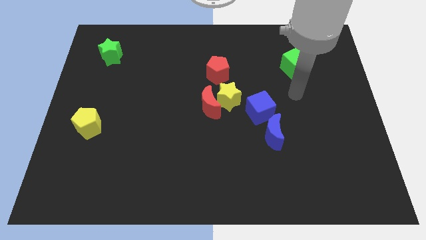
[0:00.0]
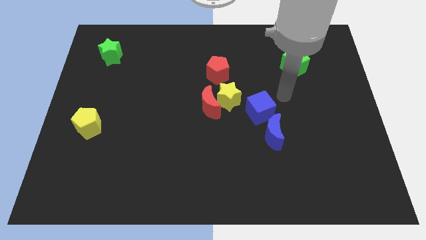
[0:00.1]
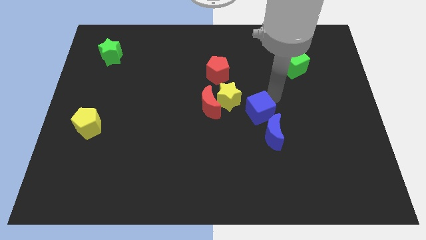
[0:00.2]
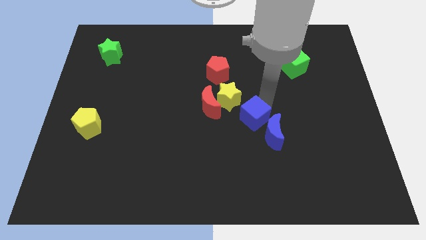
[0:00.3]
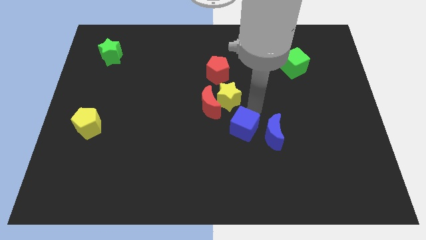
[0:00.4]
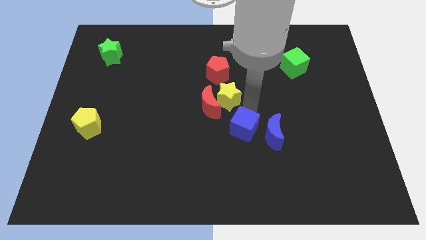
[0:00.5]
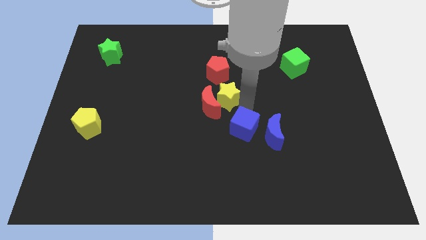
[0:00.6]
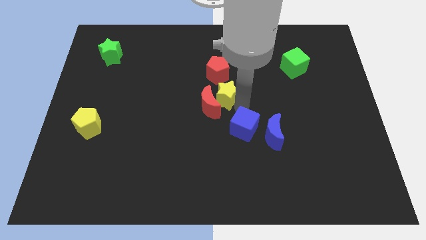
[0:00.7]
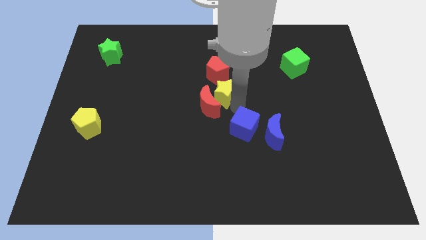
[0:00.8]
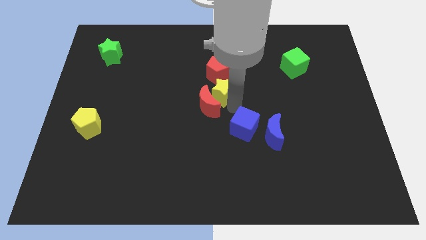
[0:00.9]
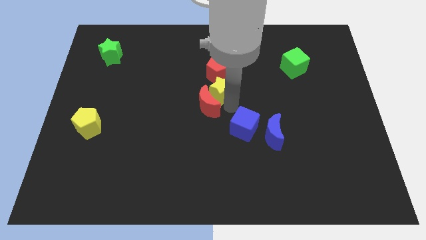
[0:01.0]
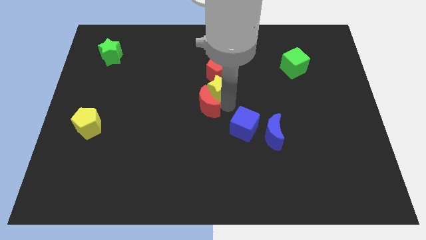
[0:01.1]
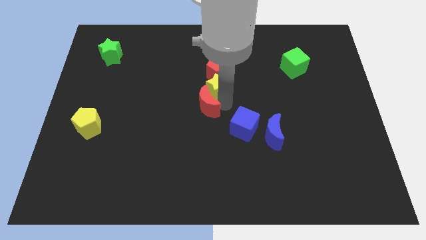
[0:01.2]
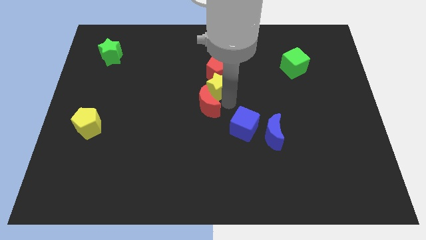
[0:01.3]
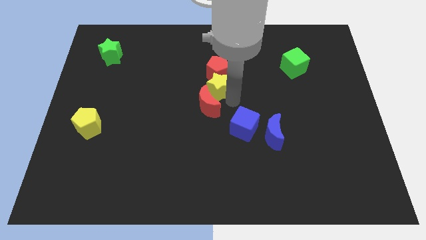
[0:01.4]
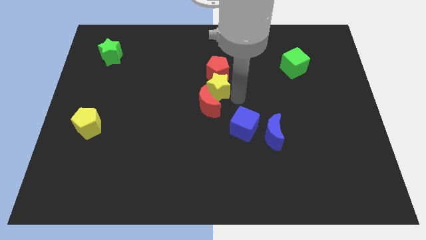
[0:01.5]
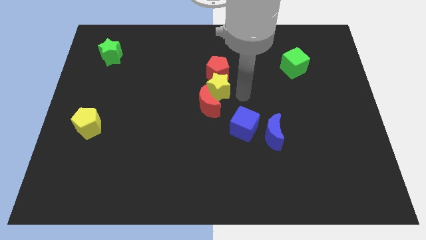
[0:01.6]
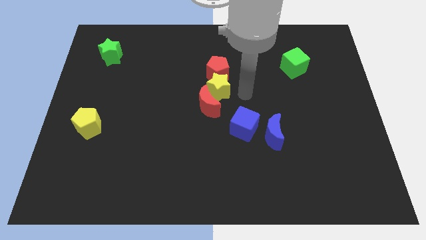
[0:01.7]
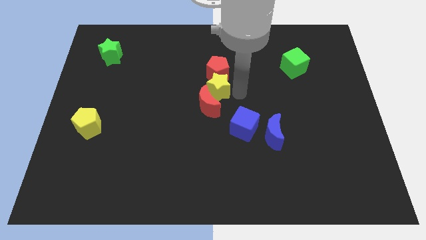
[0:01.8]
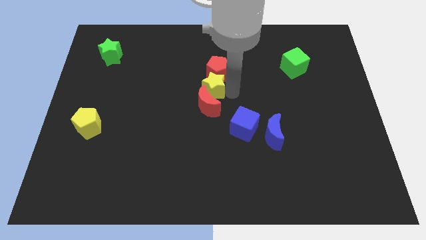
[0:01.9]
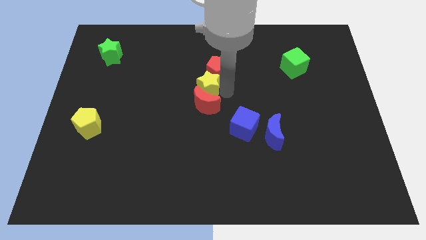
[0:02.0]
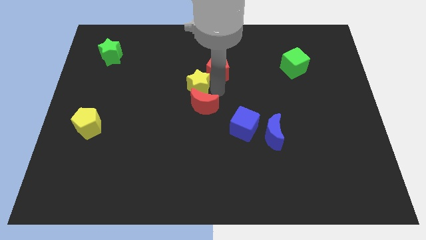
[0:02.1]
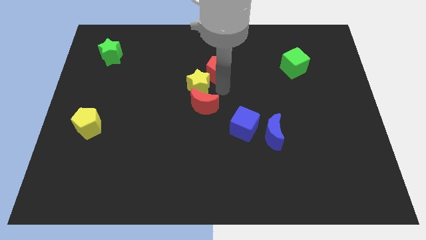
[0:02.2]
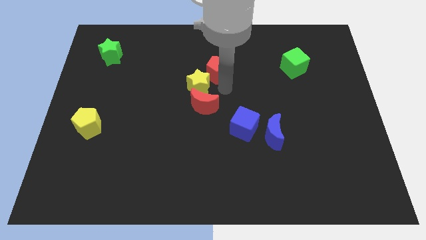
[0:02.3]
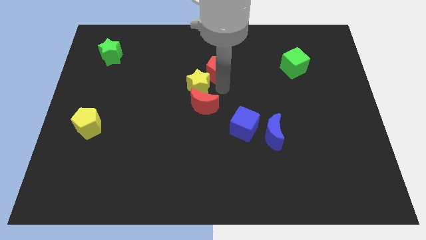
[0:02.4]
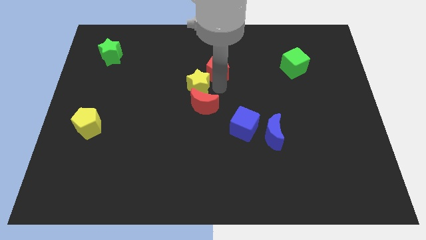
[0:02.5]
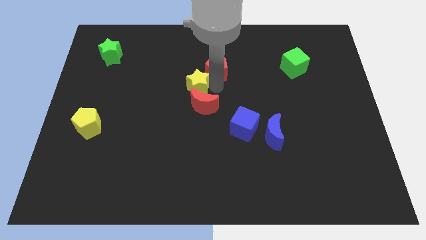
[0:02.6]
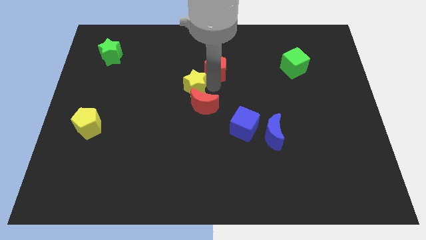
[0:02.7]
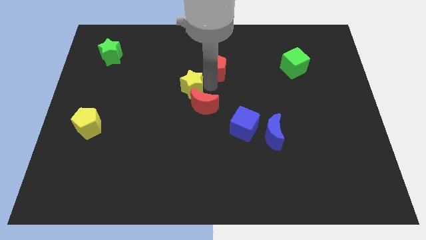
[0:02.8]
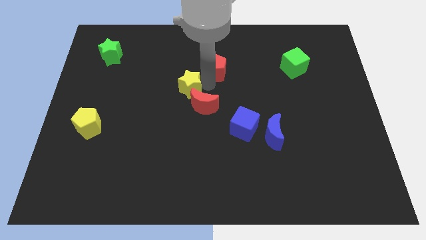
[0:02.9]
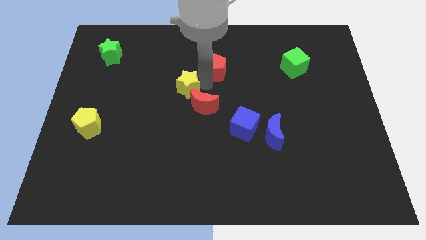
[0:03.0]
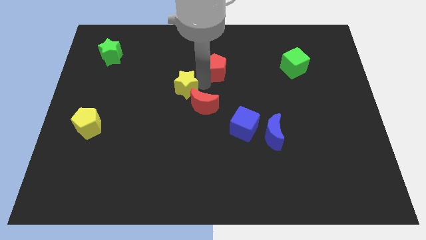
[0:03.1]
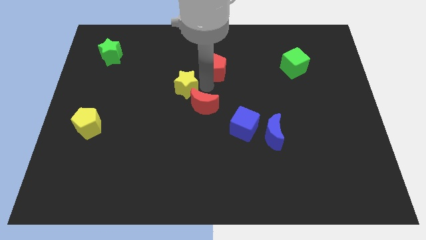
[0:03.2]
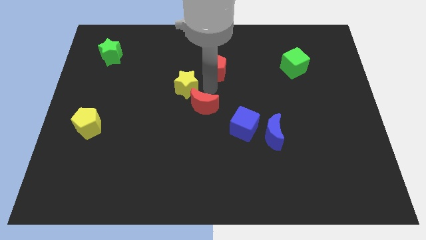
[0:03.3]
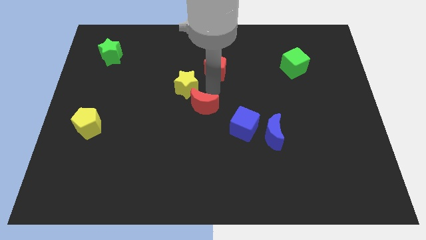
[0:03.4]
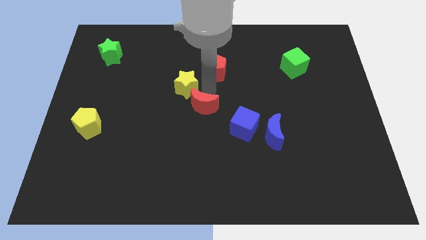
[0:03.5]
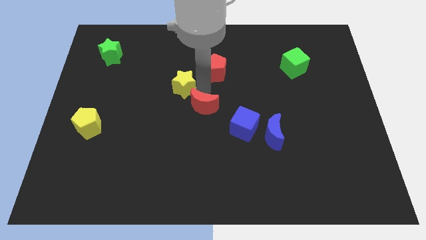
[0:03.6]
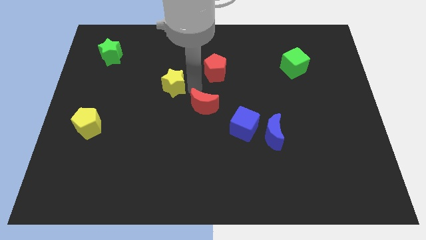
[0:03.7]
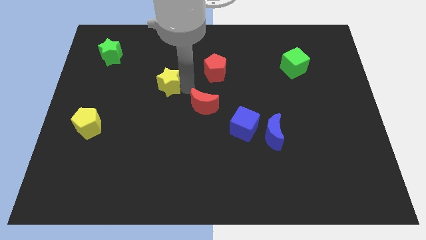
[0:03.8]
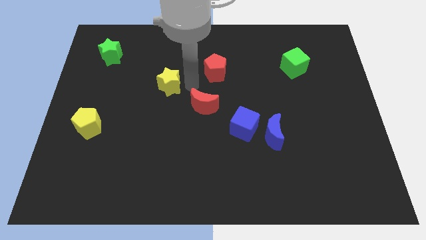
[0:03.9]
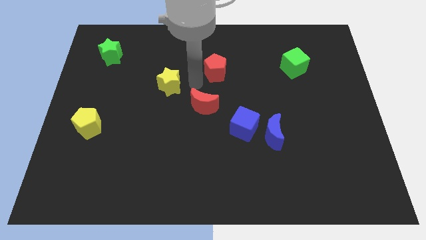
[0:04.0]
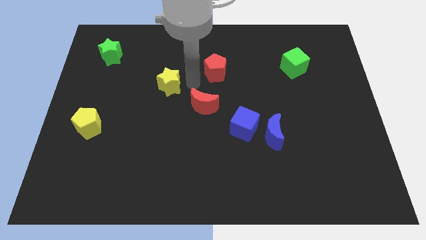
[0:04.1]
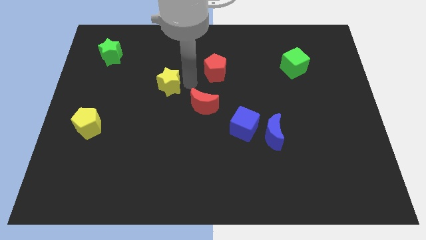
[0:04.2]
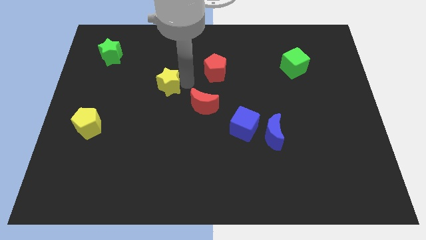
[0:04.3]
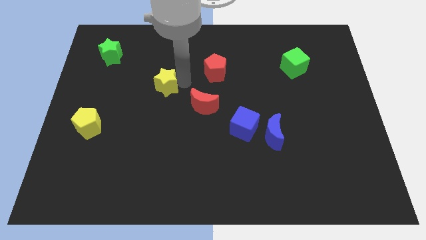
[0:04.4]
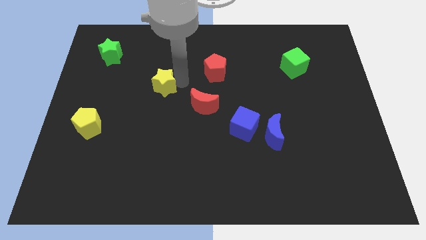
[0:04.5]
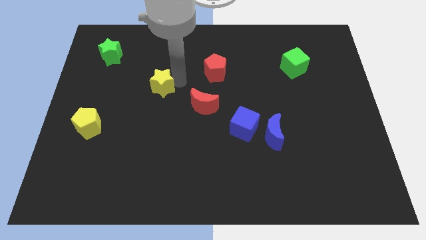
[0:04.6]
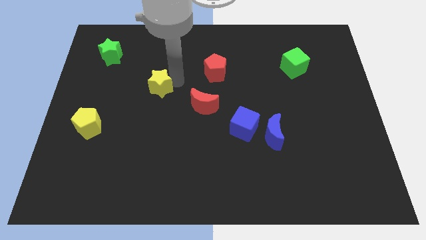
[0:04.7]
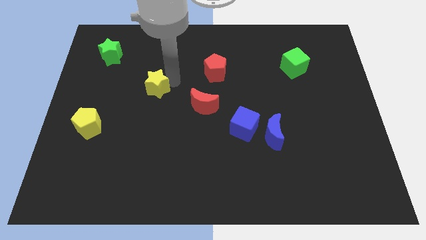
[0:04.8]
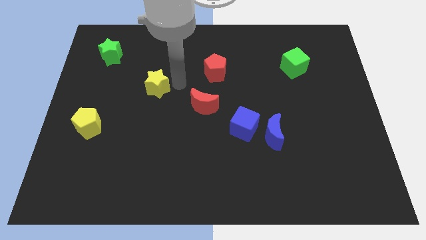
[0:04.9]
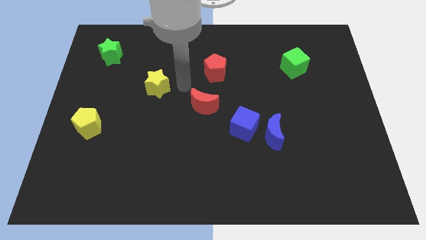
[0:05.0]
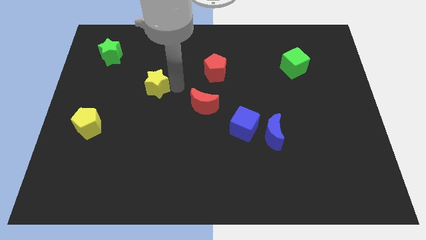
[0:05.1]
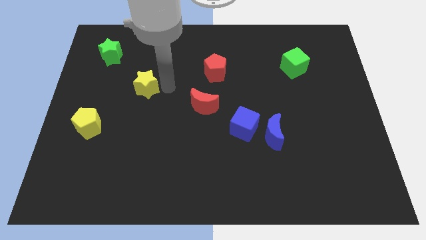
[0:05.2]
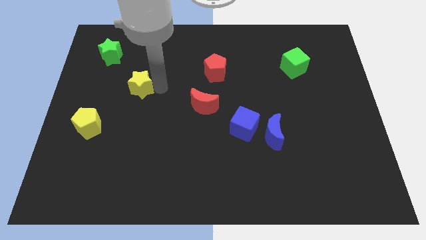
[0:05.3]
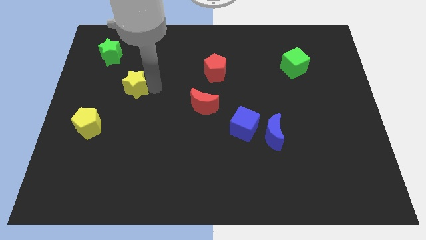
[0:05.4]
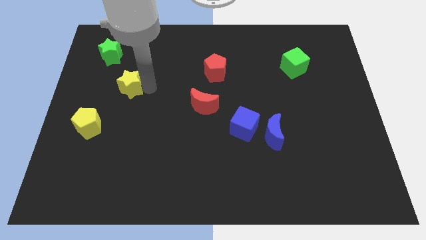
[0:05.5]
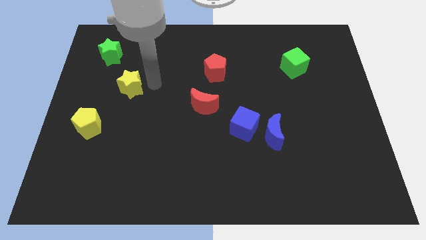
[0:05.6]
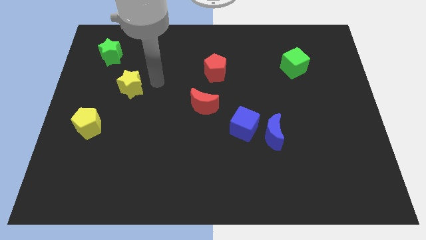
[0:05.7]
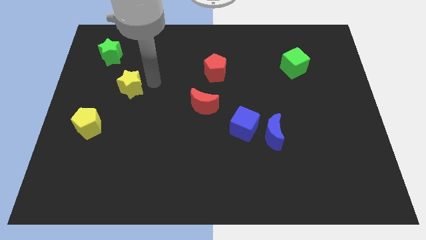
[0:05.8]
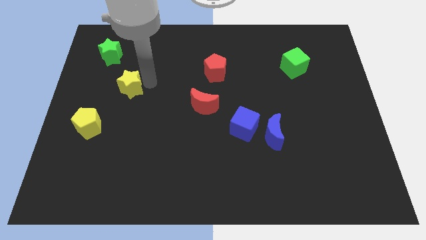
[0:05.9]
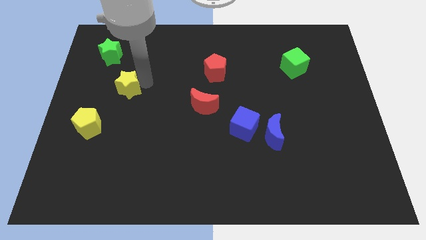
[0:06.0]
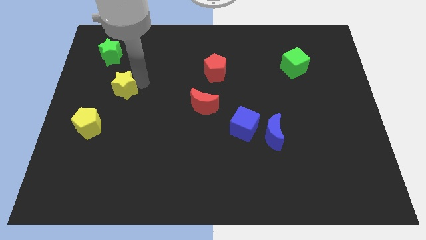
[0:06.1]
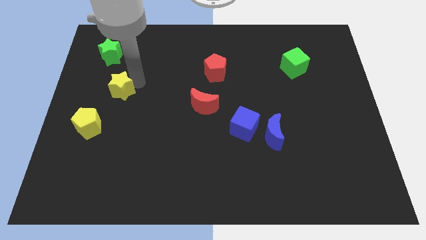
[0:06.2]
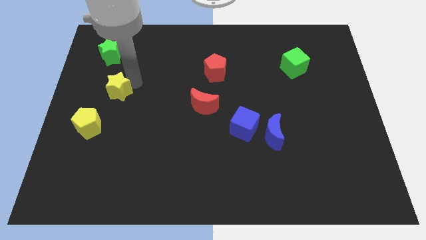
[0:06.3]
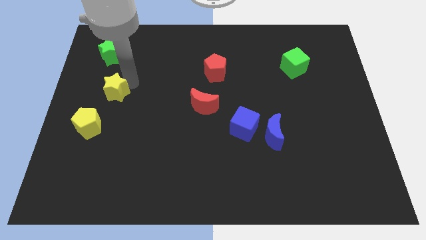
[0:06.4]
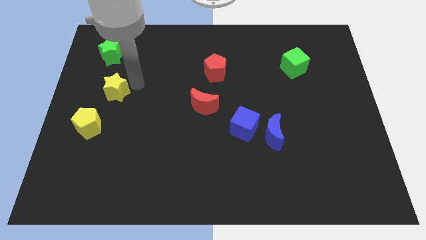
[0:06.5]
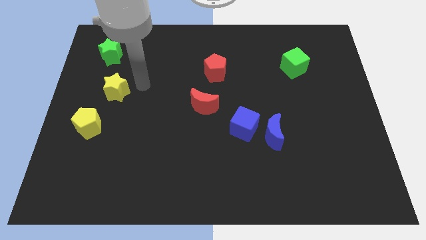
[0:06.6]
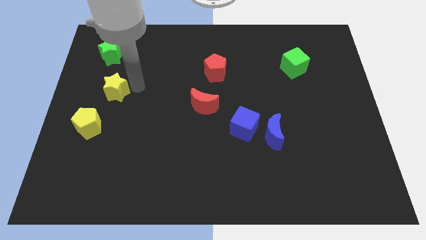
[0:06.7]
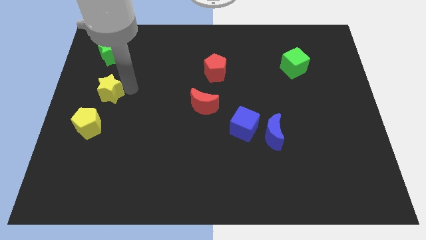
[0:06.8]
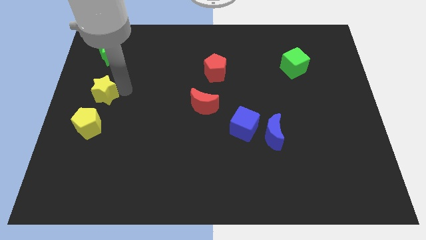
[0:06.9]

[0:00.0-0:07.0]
push the yellow star to the left side

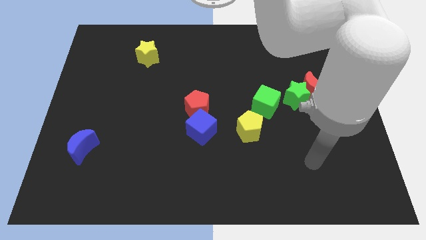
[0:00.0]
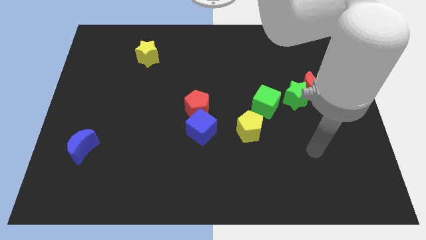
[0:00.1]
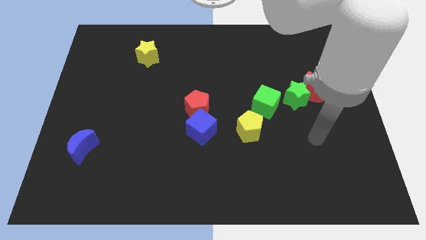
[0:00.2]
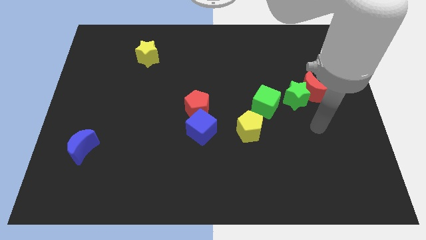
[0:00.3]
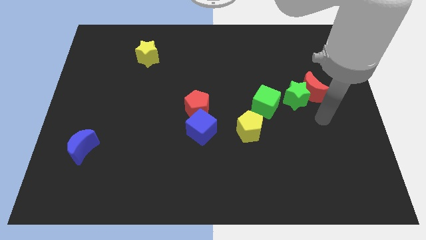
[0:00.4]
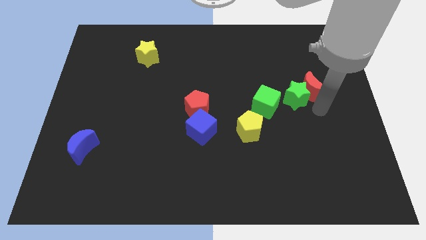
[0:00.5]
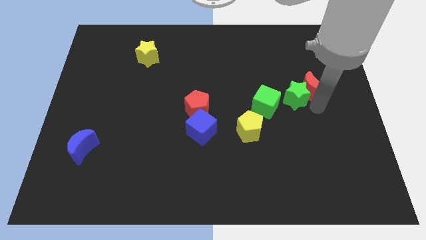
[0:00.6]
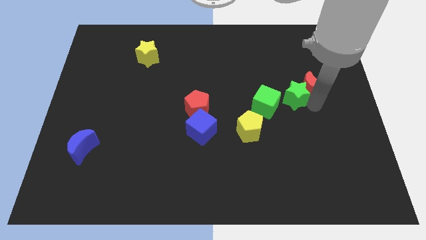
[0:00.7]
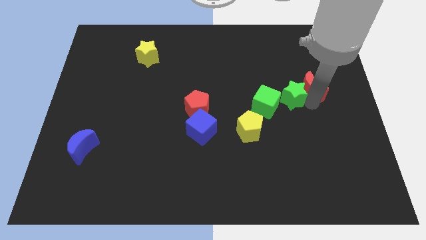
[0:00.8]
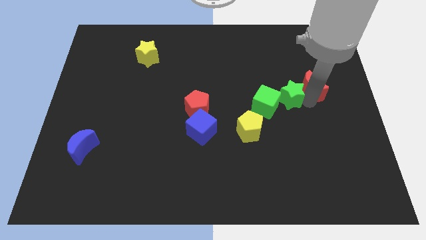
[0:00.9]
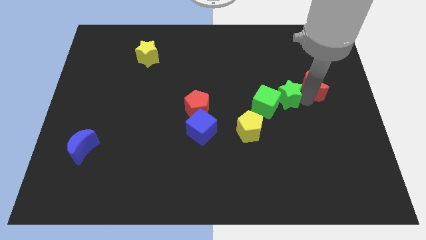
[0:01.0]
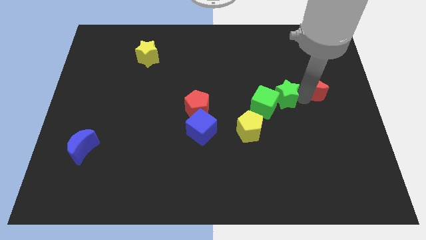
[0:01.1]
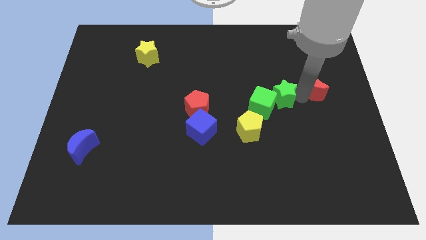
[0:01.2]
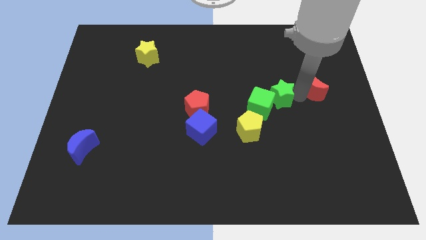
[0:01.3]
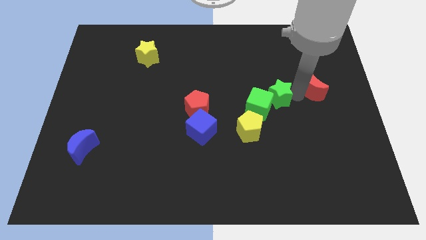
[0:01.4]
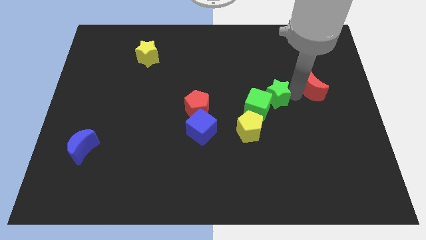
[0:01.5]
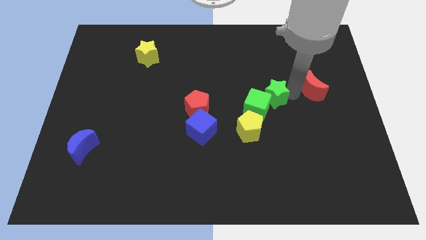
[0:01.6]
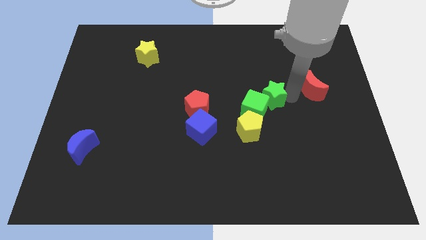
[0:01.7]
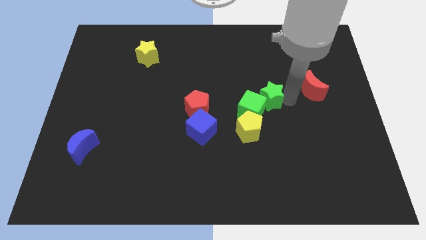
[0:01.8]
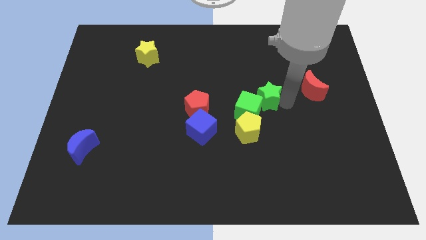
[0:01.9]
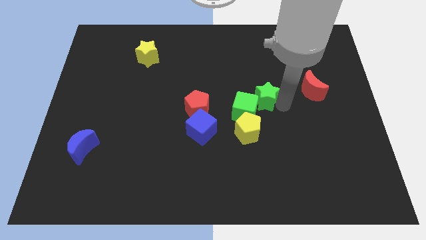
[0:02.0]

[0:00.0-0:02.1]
push the green star to the center of the board
